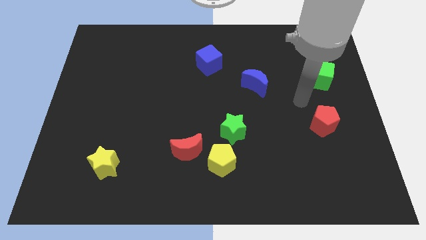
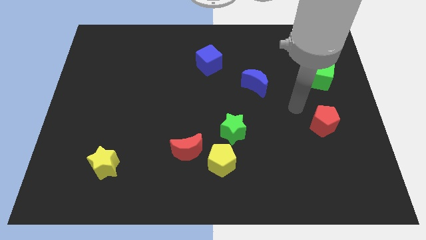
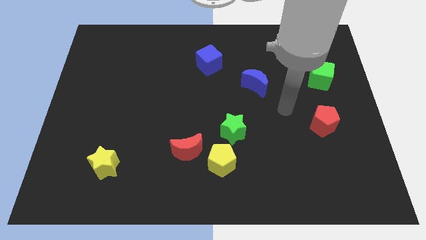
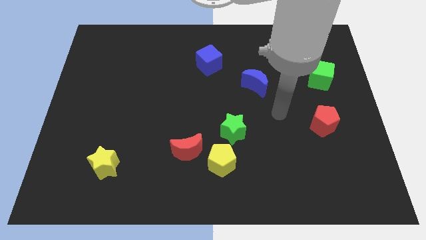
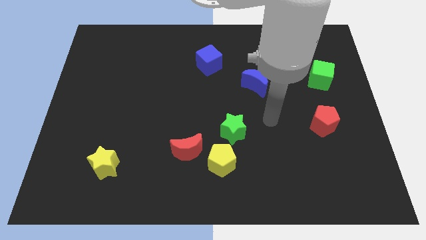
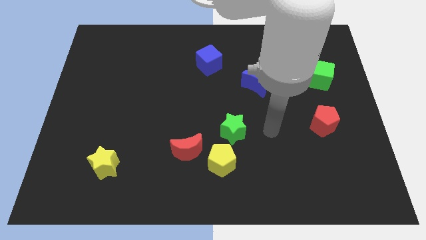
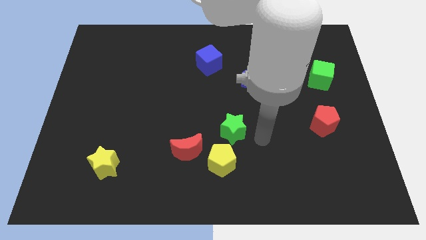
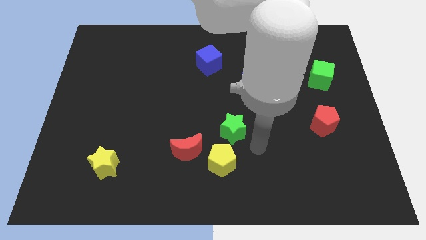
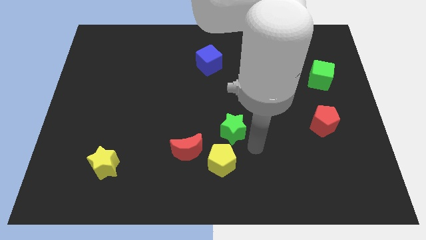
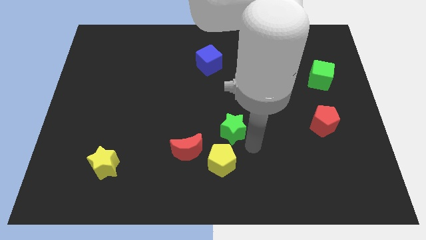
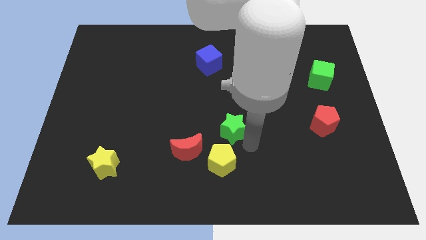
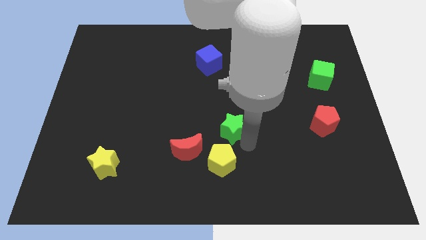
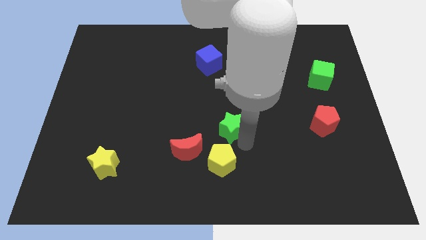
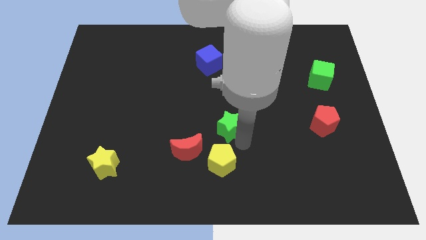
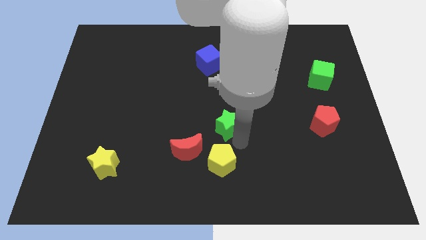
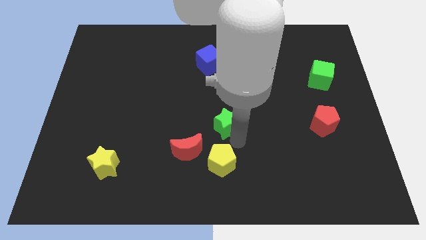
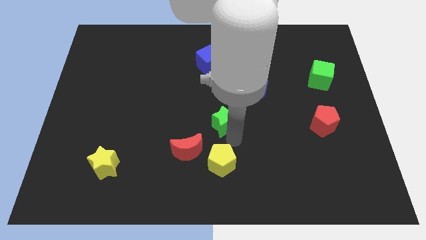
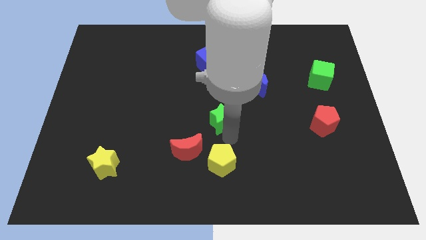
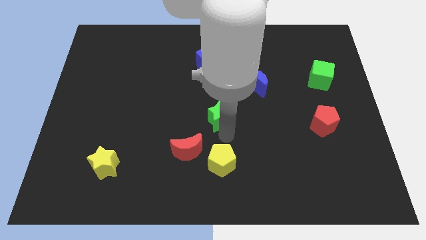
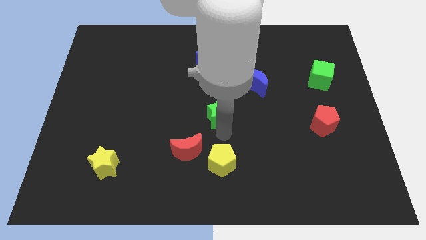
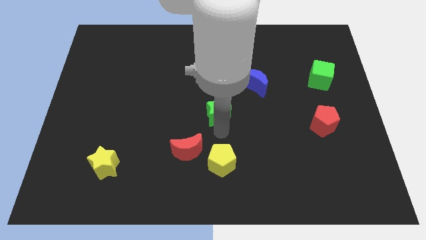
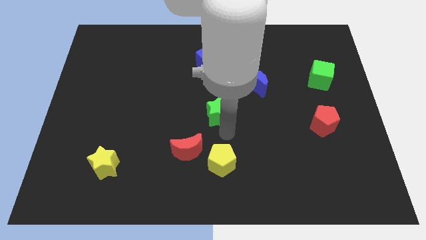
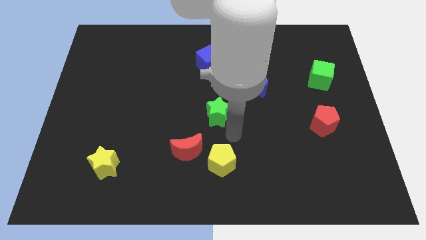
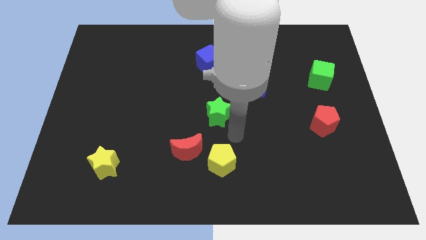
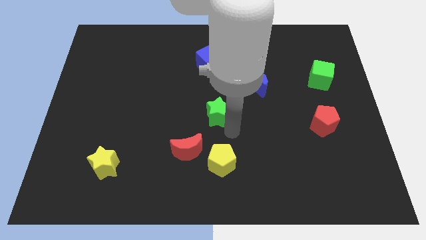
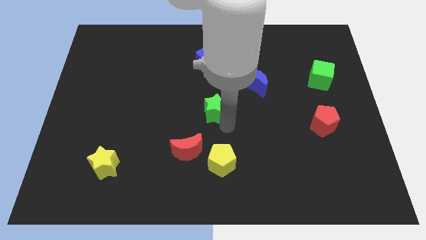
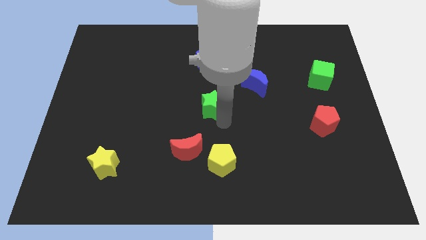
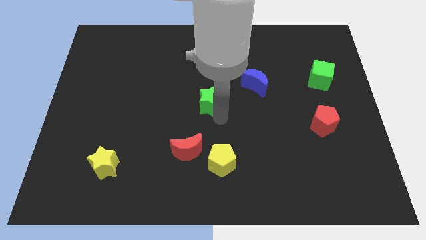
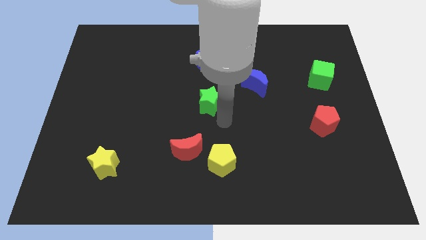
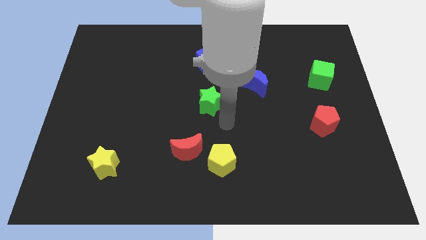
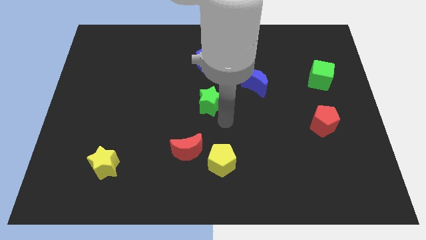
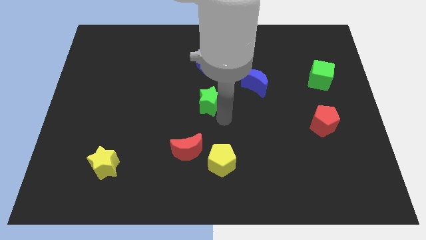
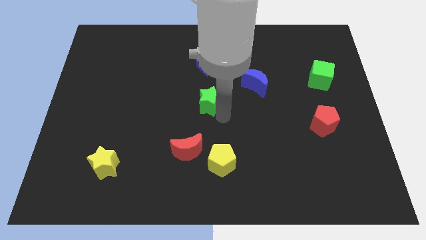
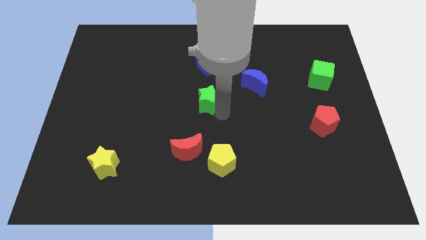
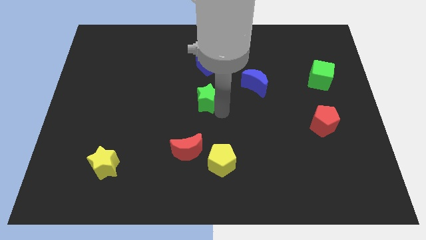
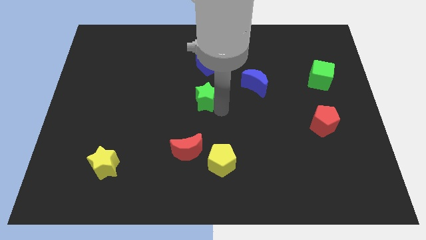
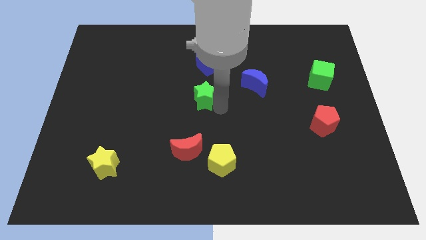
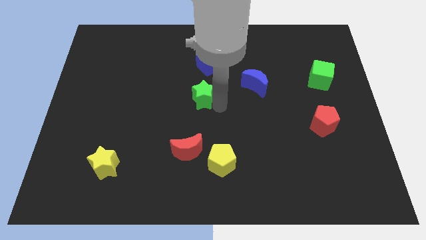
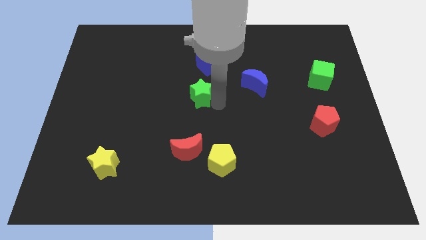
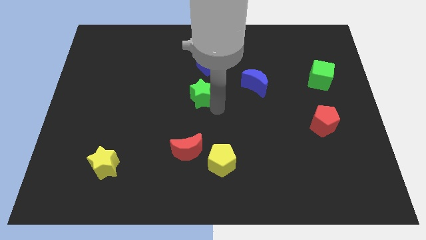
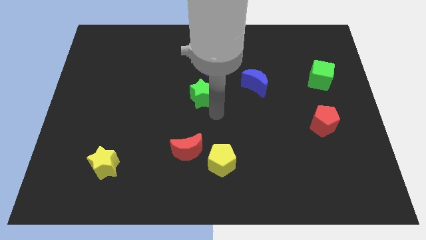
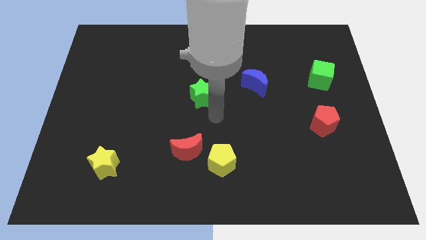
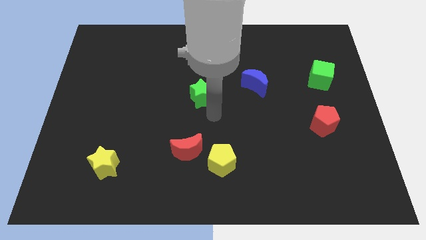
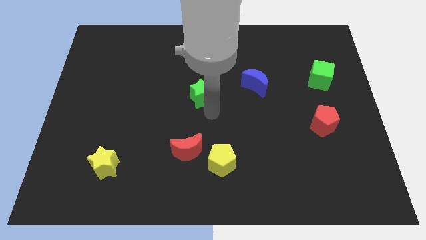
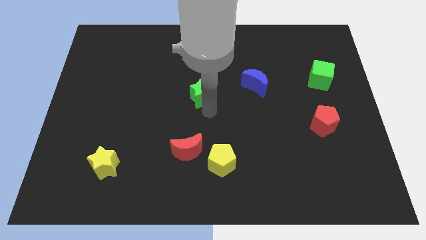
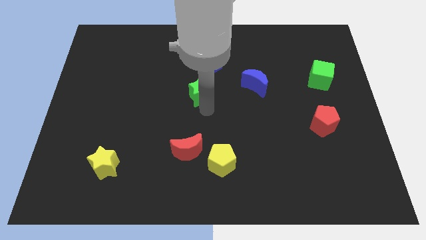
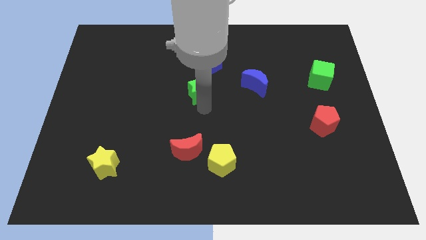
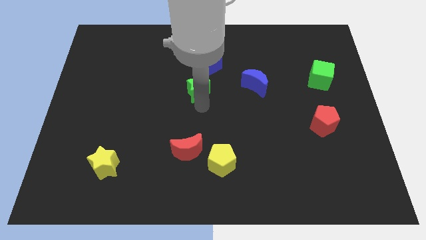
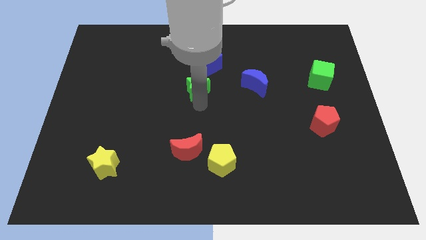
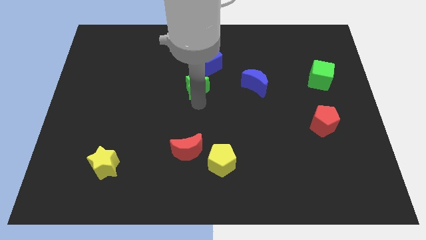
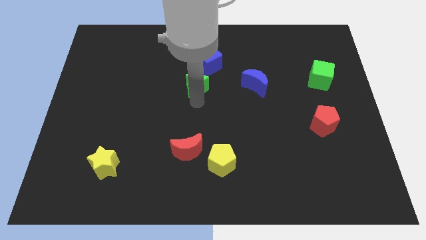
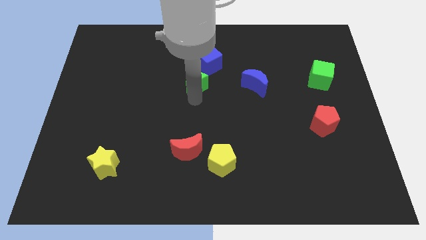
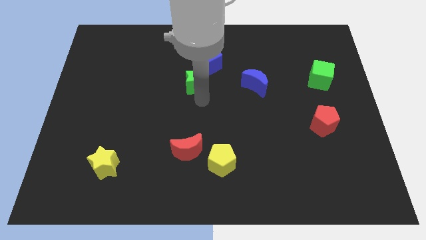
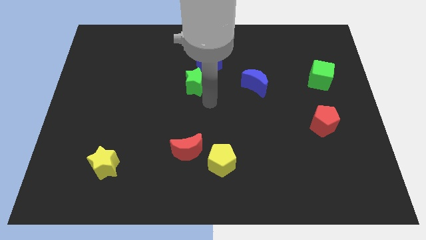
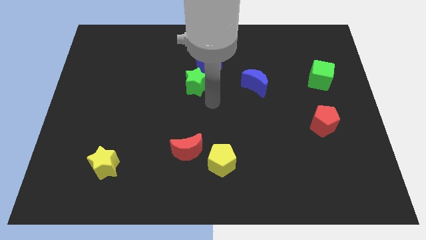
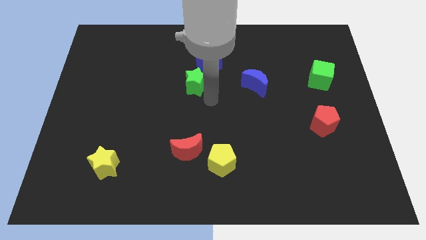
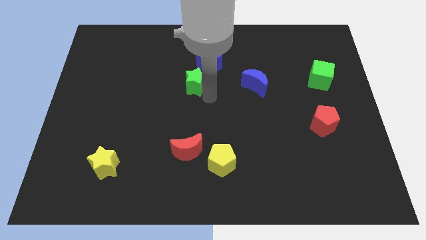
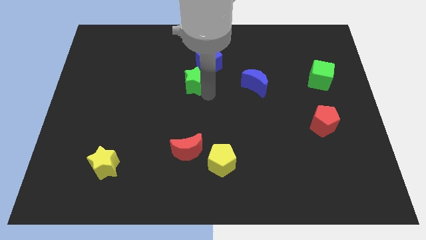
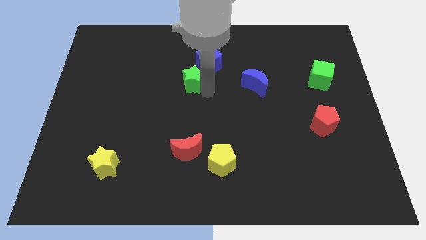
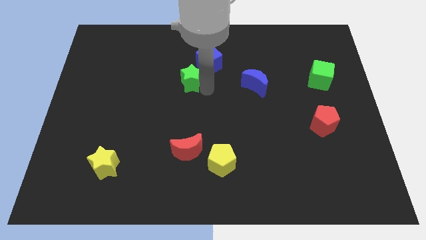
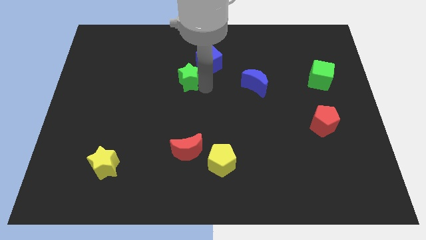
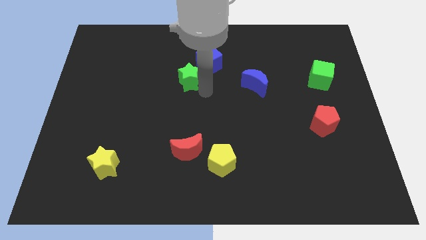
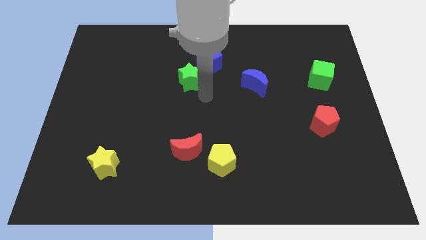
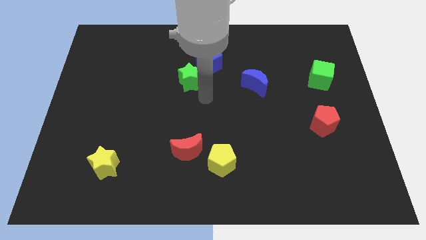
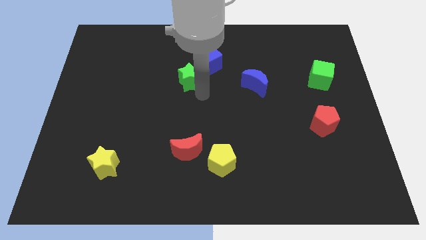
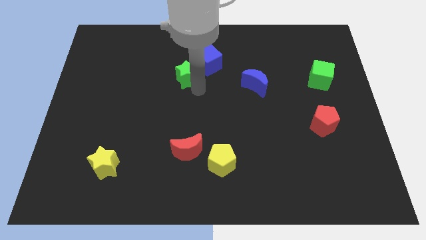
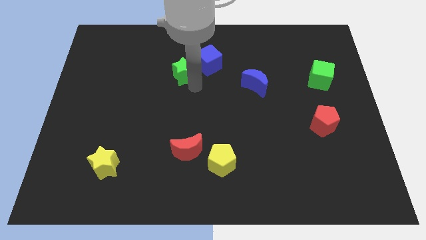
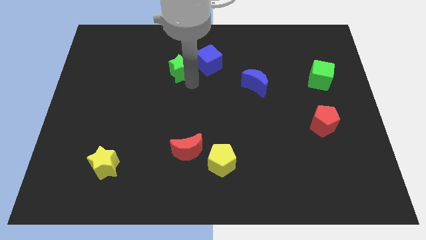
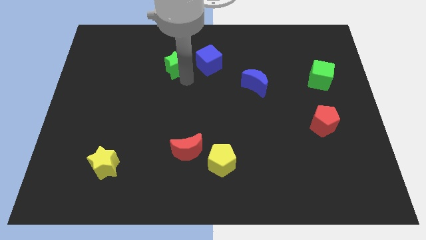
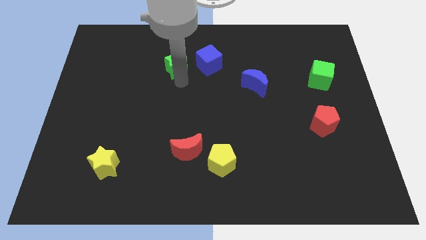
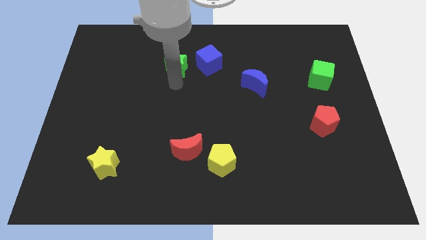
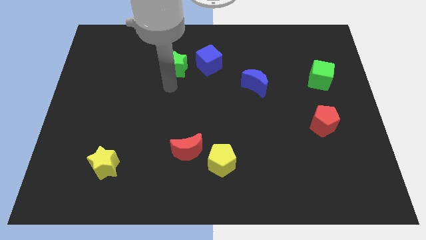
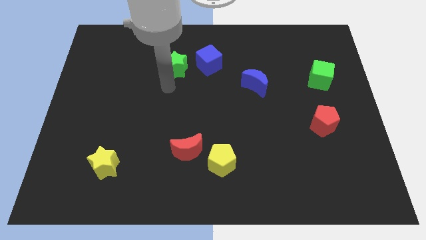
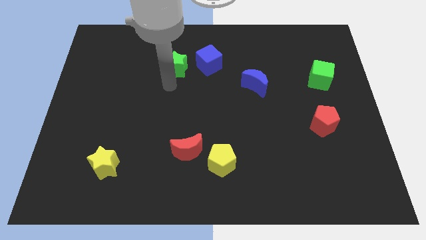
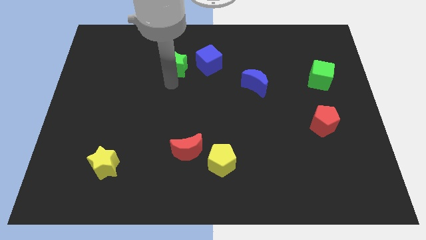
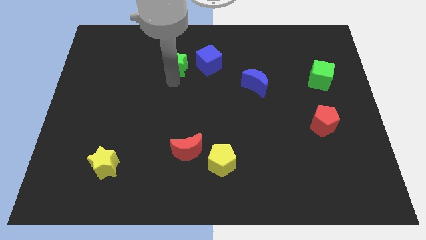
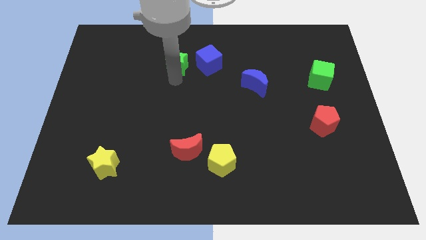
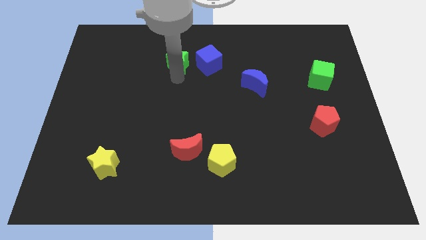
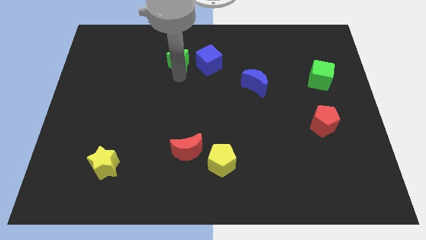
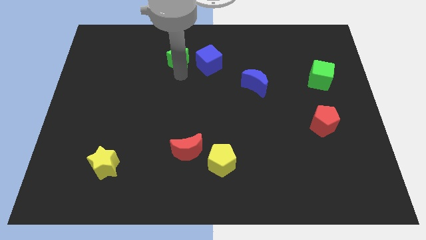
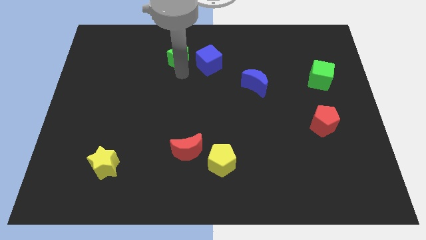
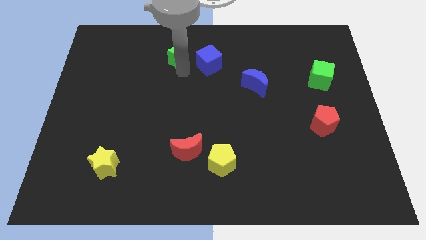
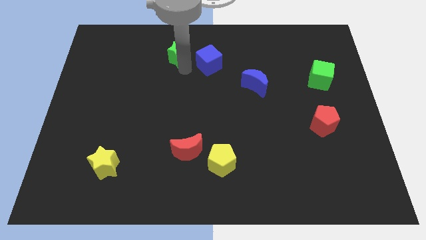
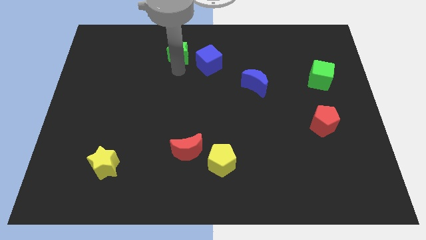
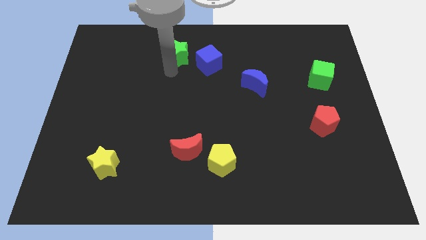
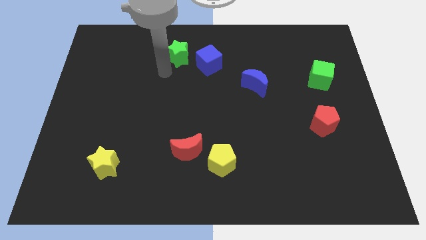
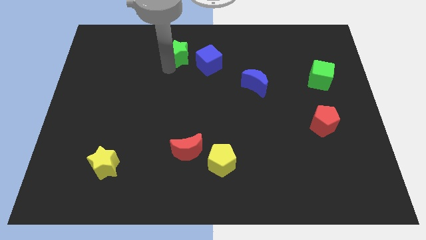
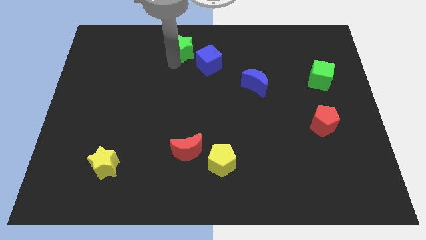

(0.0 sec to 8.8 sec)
put the green star to the towards your base
